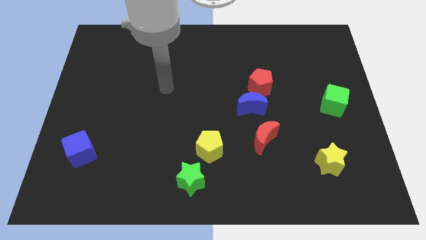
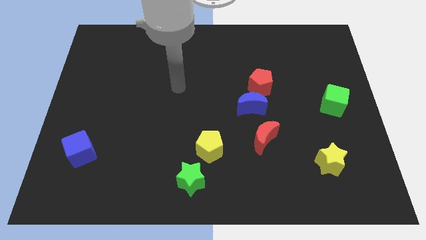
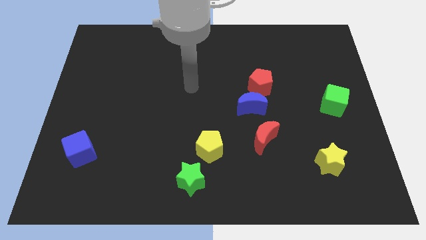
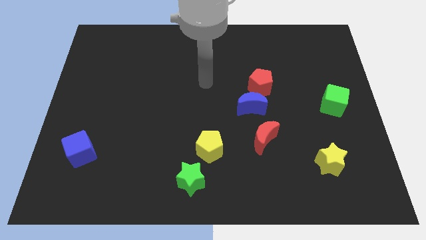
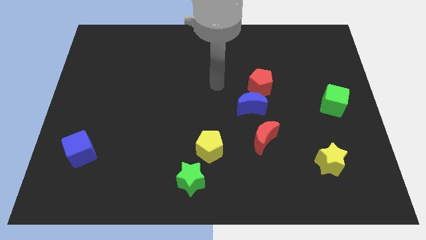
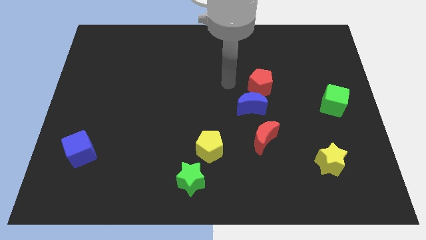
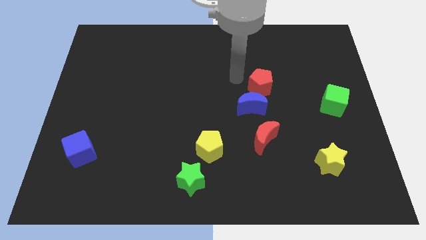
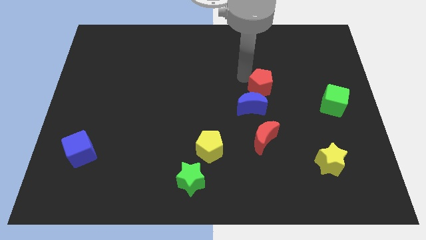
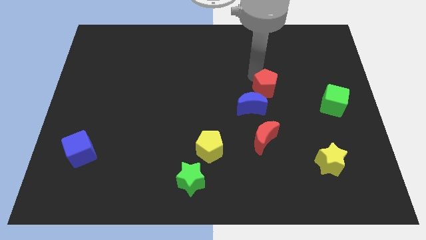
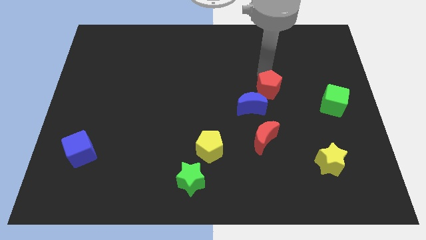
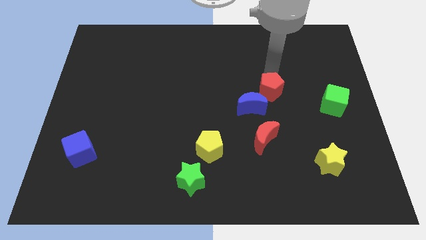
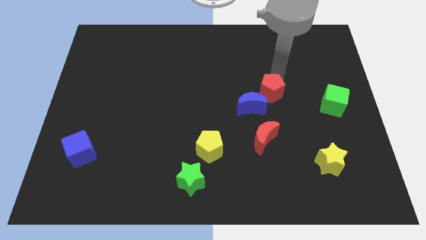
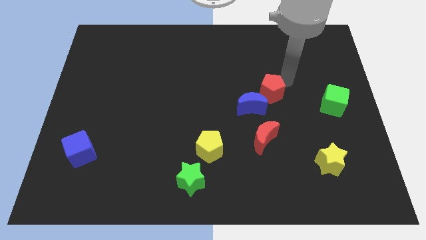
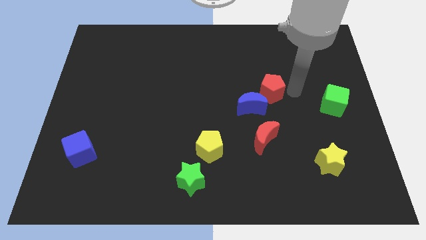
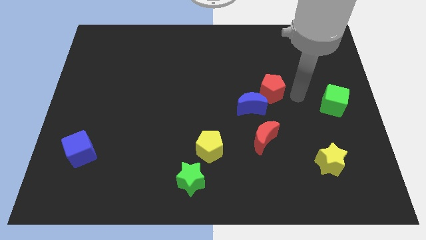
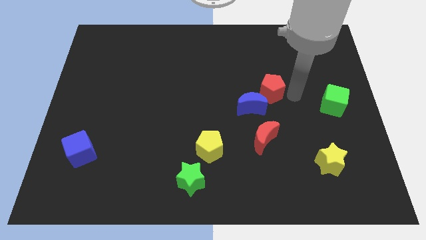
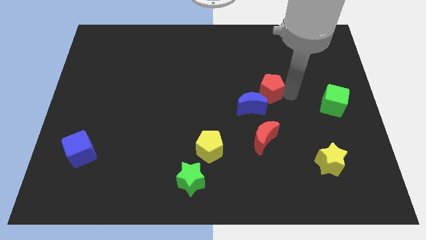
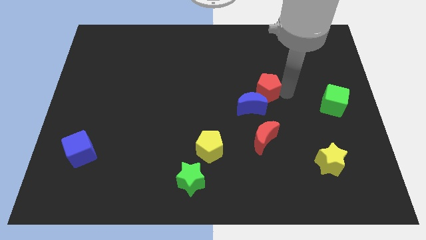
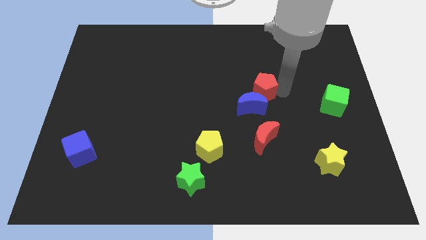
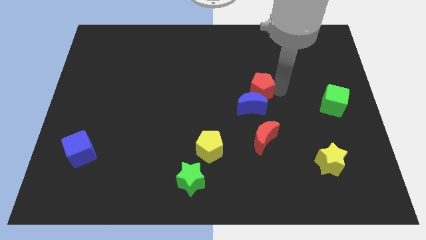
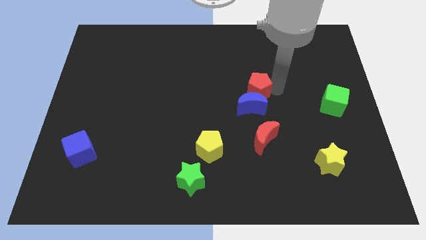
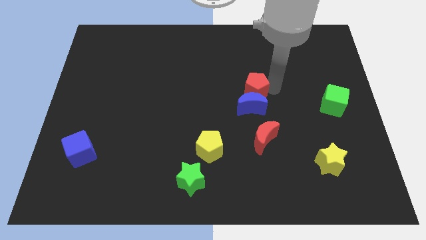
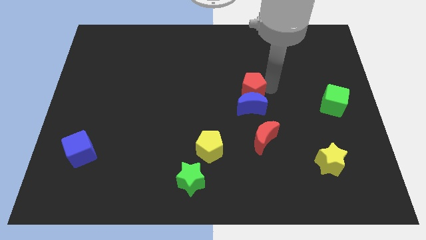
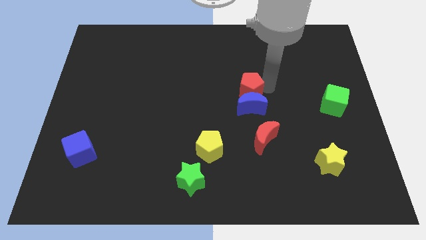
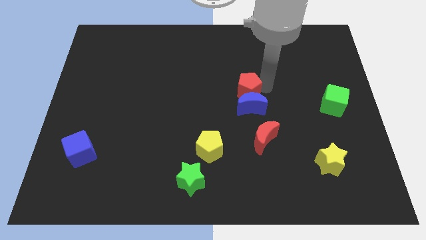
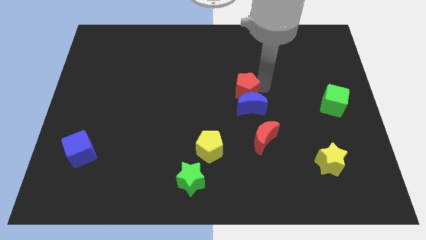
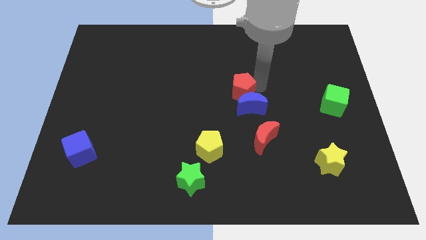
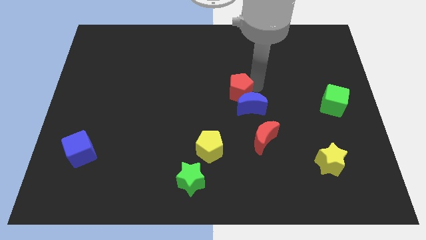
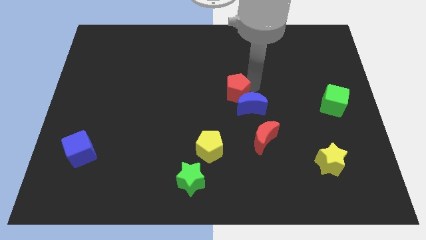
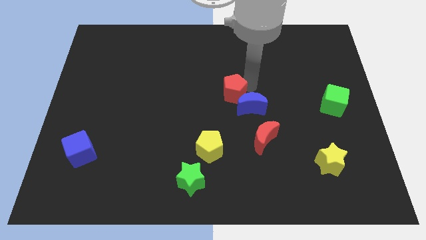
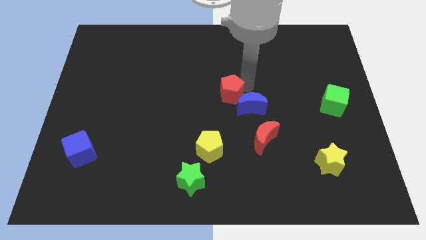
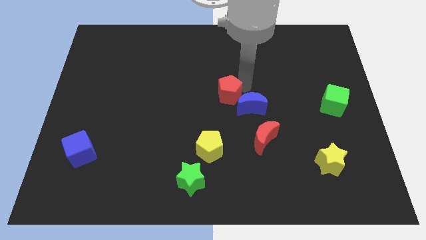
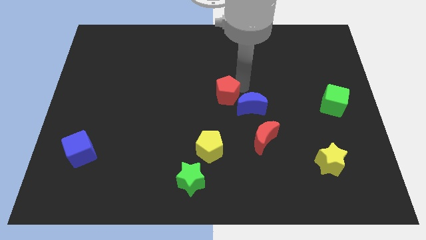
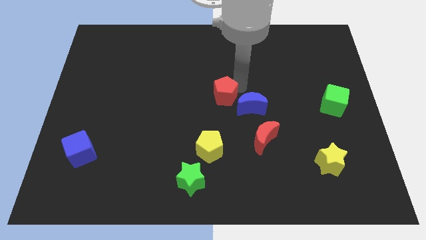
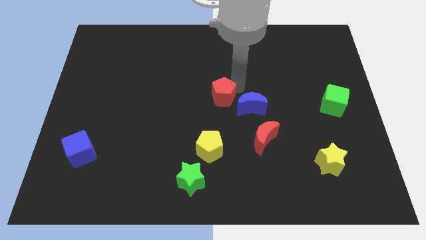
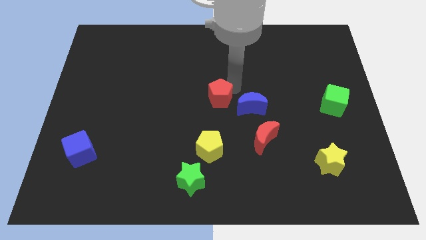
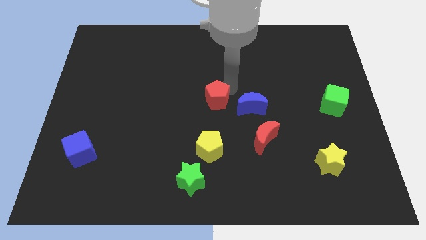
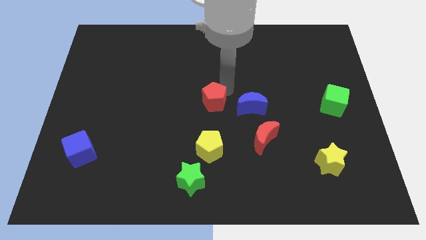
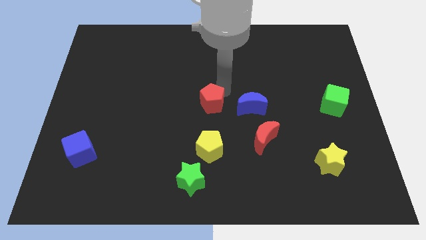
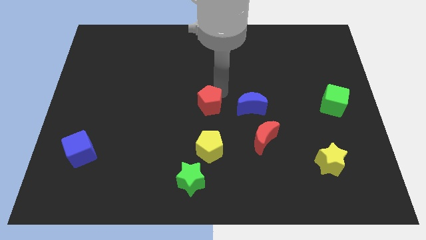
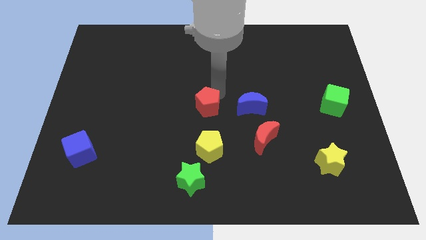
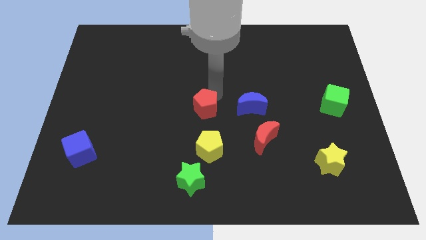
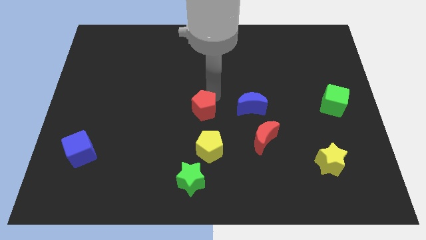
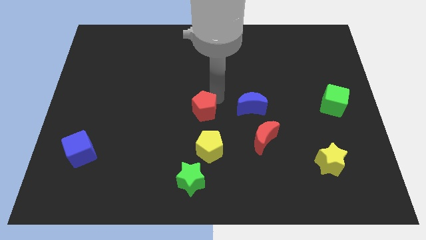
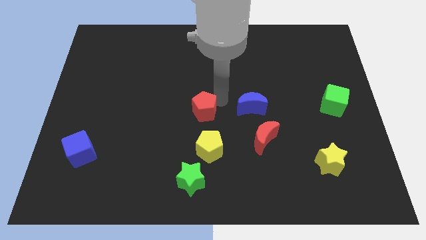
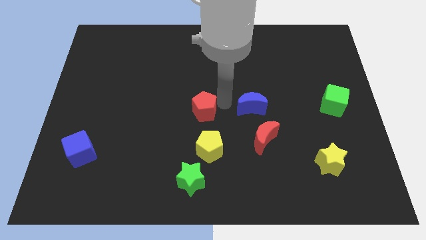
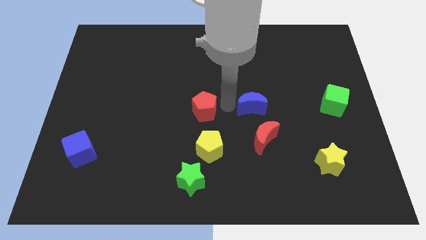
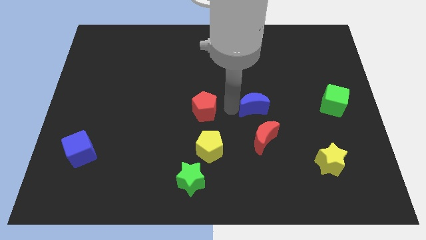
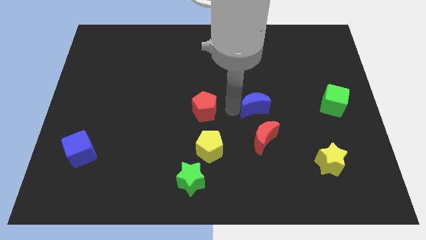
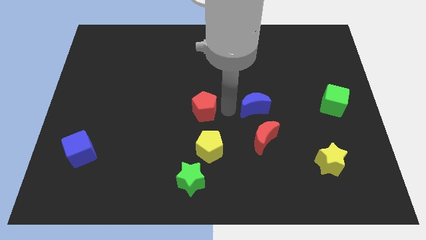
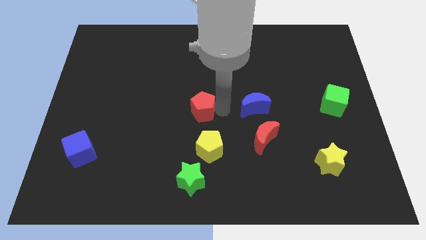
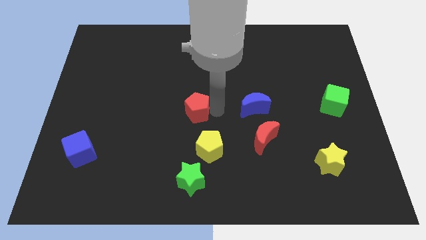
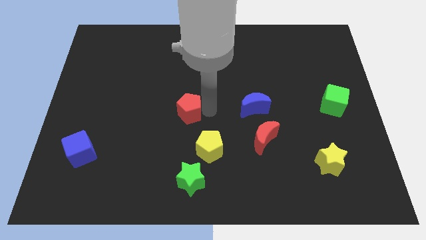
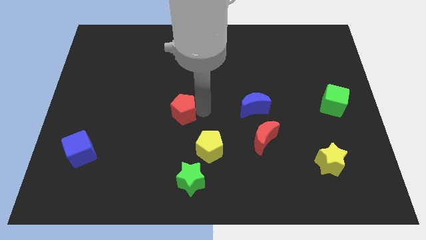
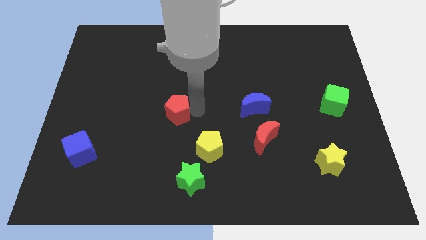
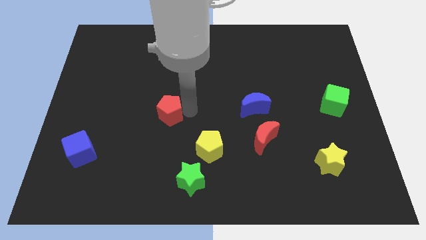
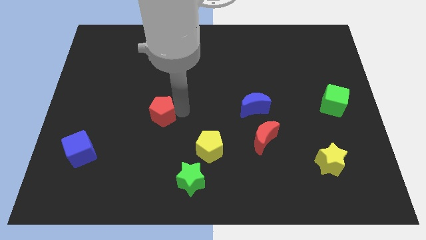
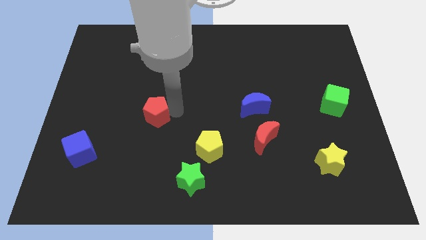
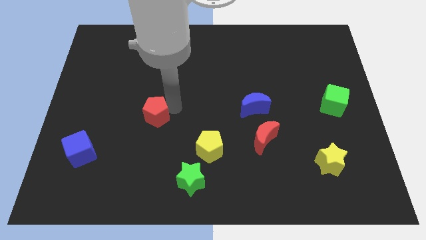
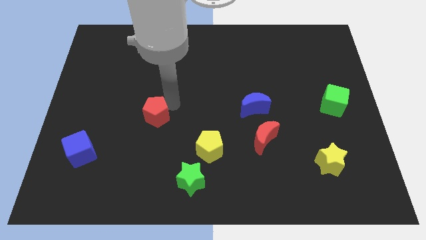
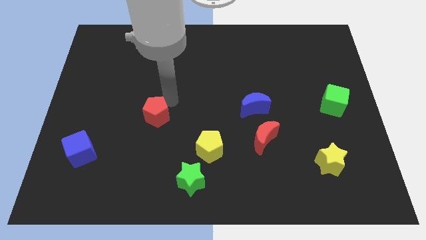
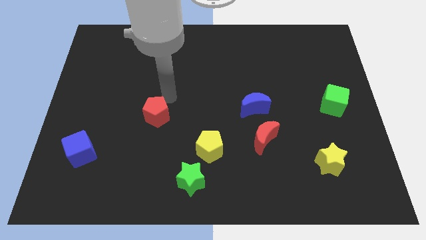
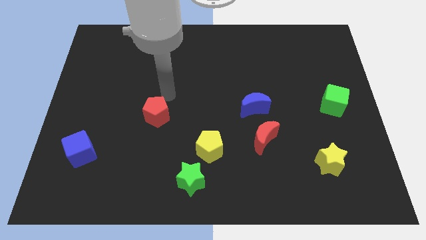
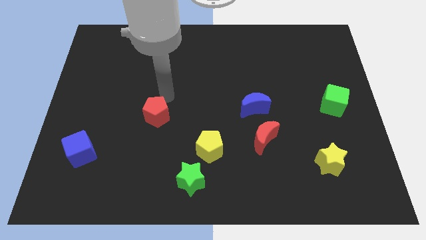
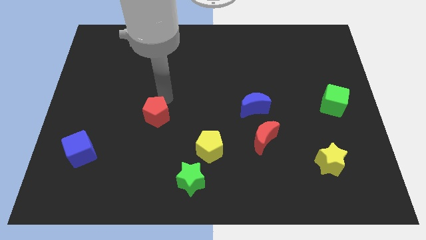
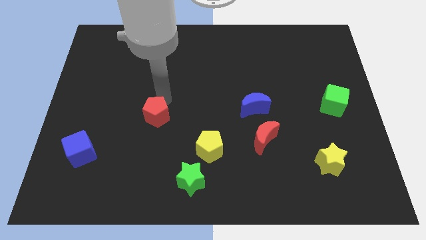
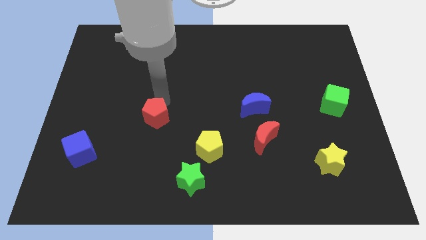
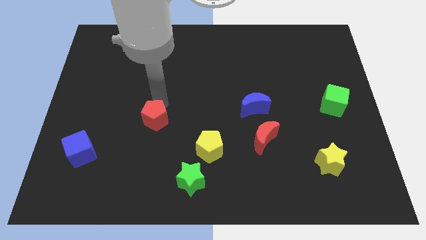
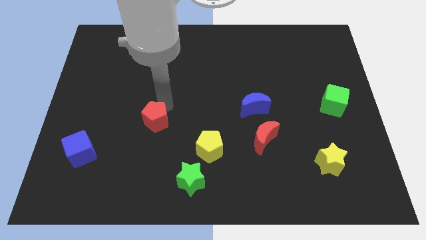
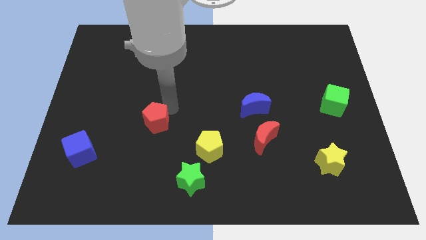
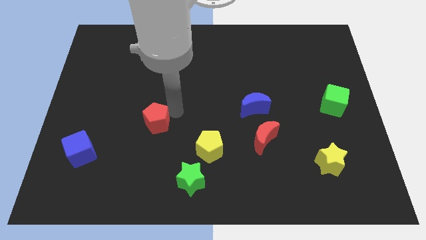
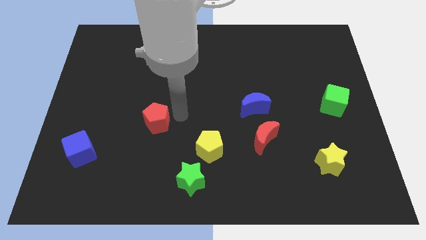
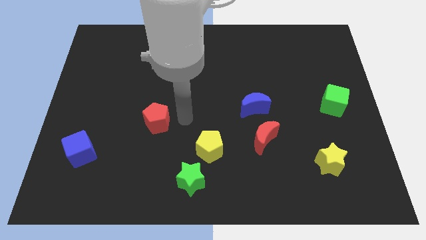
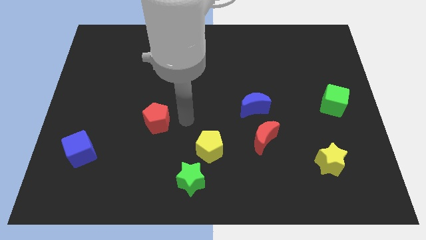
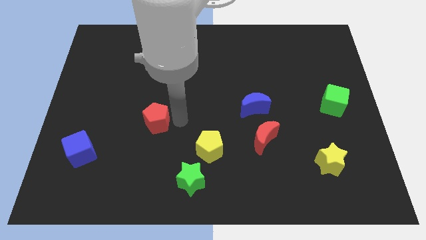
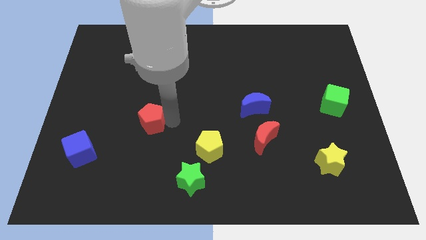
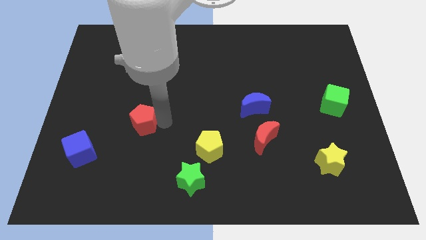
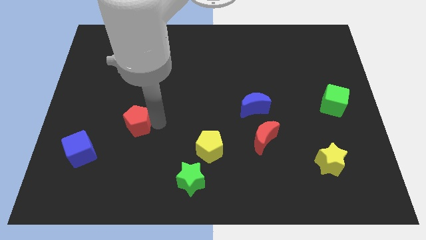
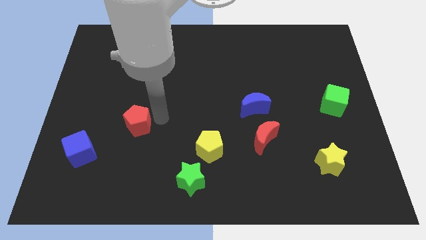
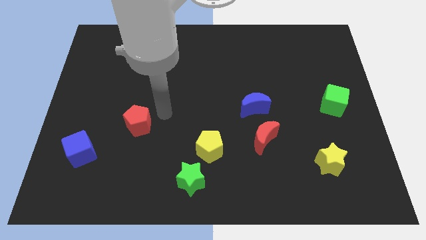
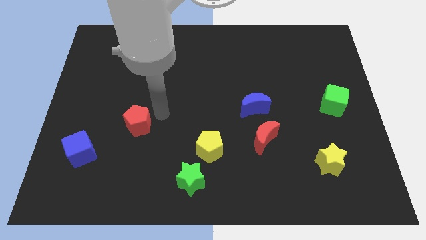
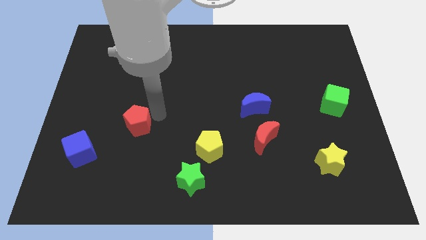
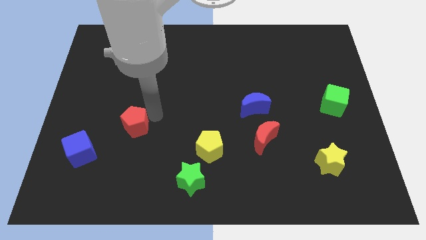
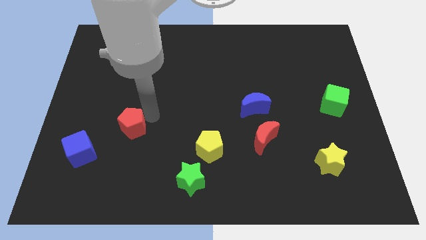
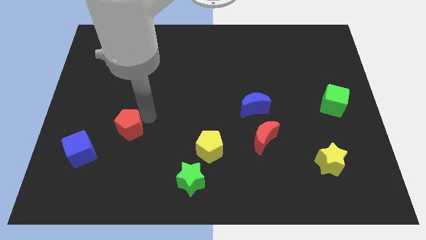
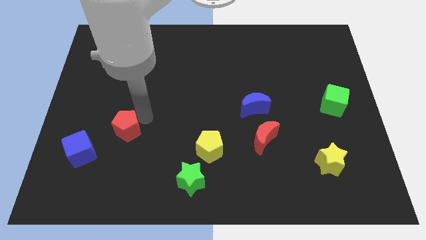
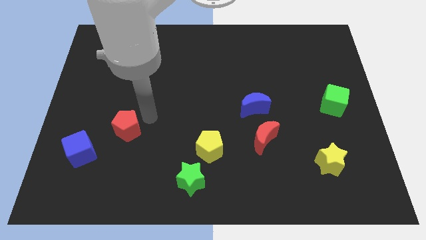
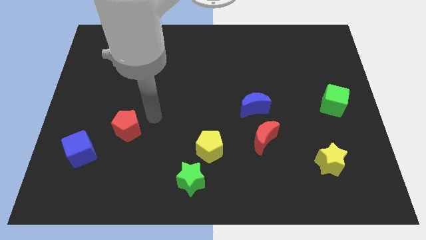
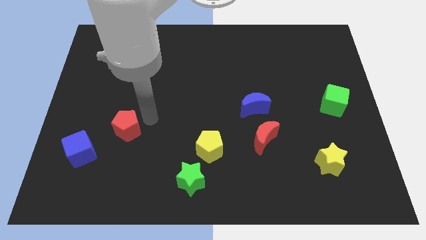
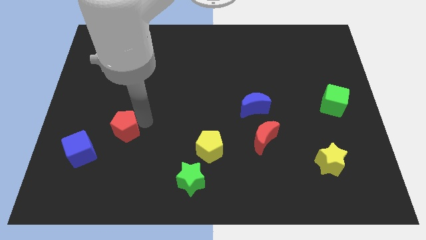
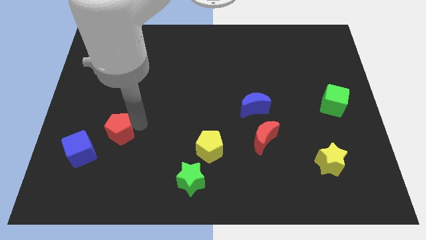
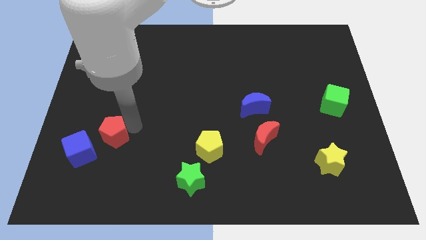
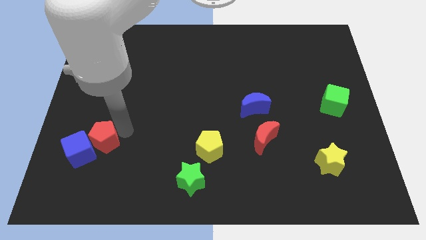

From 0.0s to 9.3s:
slide the red pentagon to the blue cube
